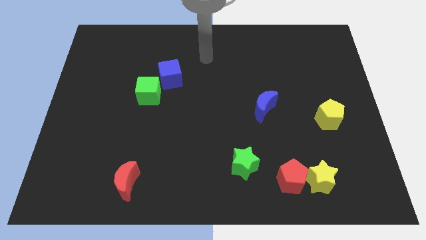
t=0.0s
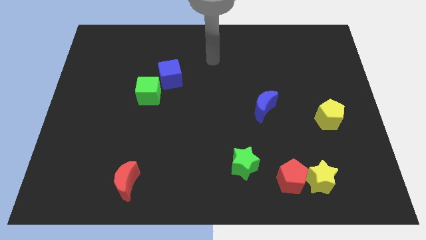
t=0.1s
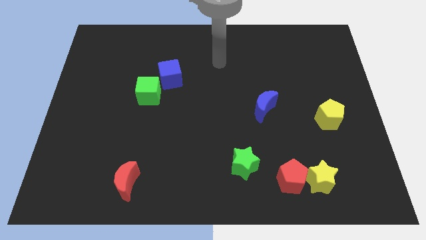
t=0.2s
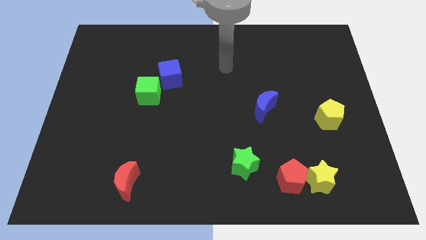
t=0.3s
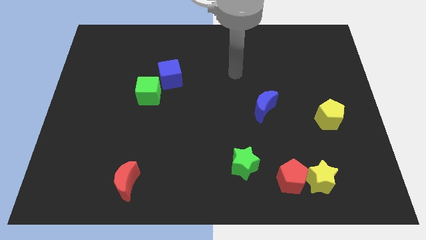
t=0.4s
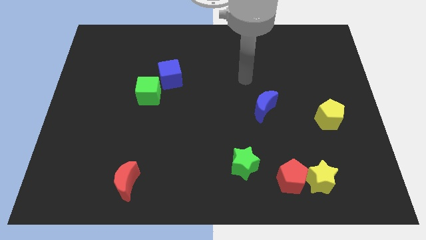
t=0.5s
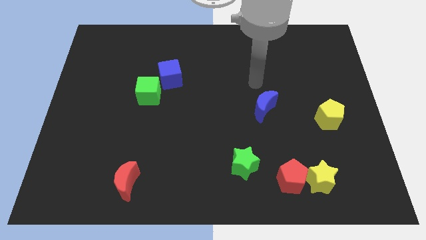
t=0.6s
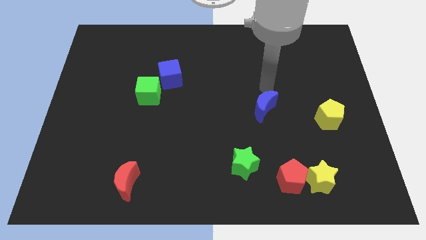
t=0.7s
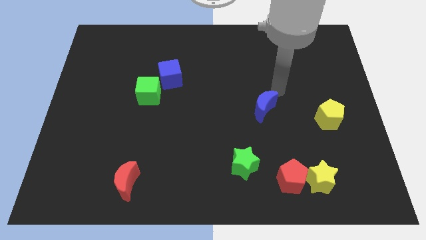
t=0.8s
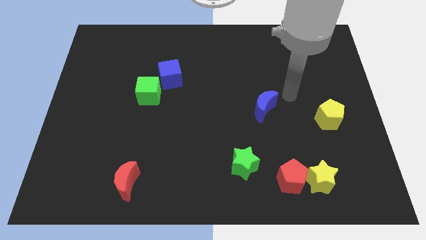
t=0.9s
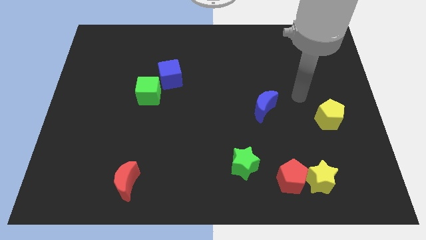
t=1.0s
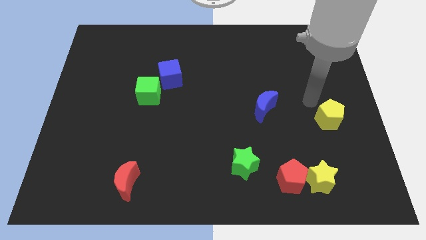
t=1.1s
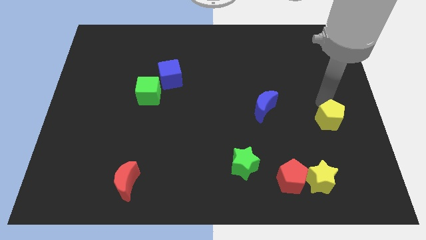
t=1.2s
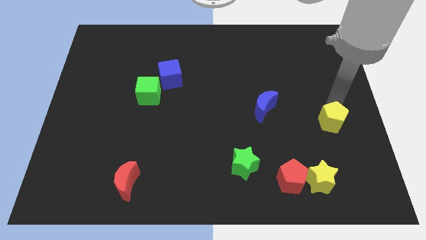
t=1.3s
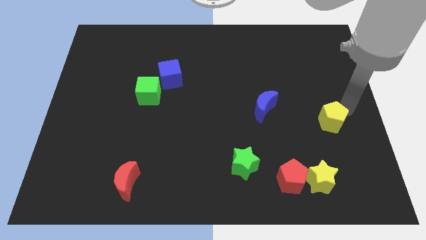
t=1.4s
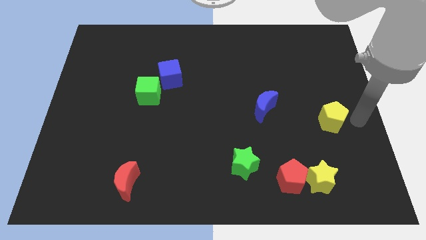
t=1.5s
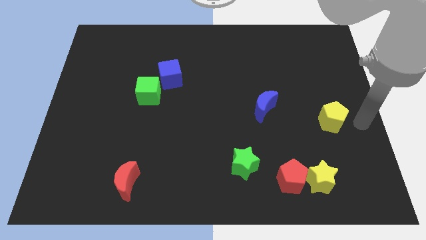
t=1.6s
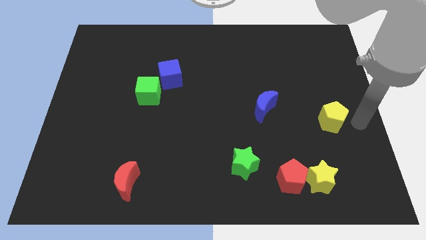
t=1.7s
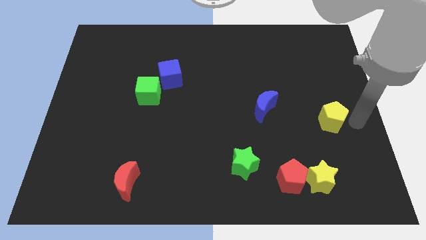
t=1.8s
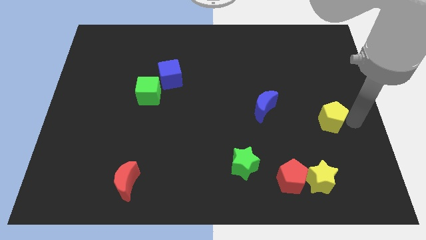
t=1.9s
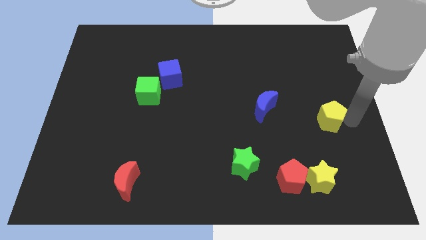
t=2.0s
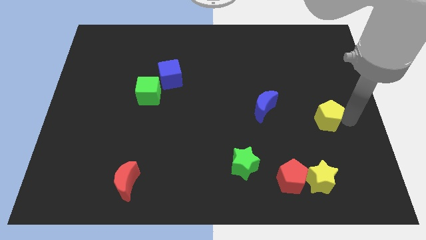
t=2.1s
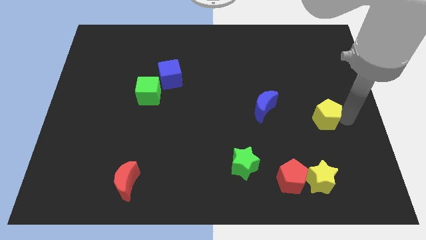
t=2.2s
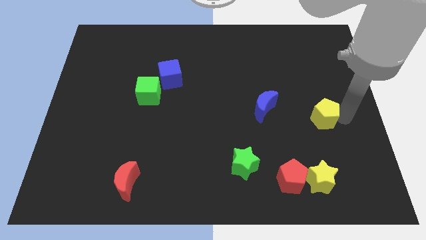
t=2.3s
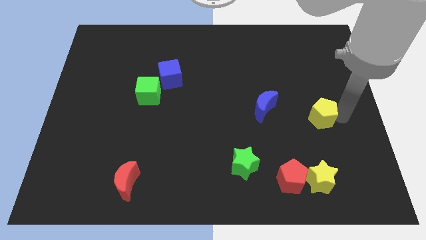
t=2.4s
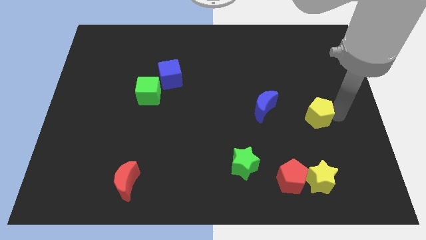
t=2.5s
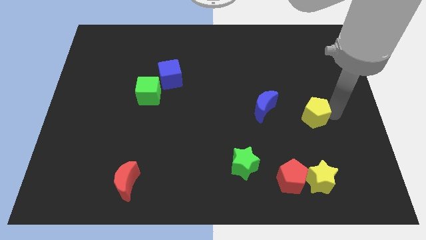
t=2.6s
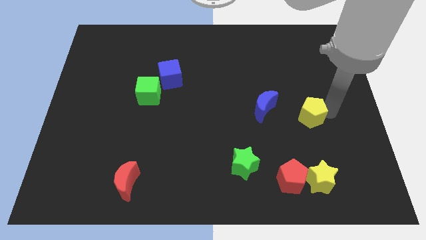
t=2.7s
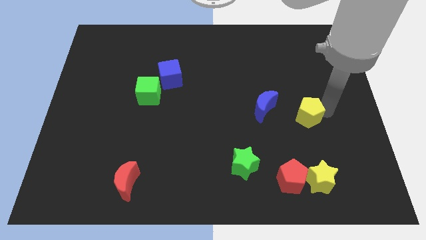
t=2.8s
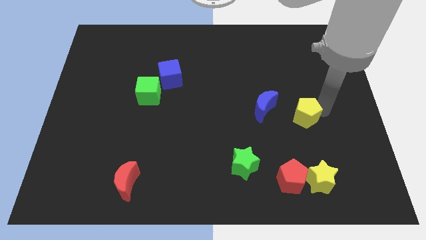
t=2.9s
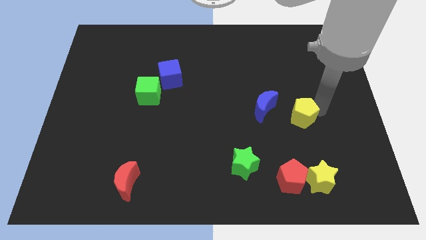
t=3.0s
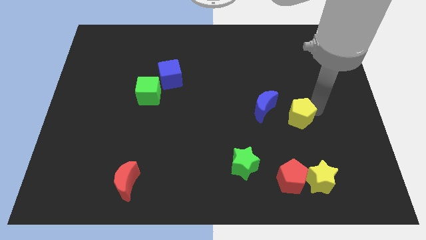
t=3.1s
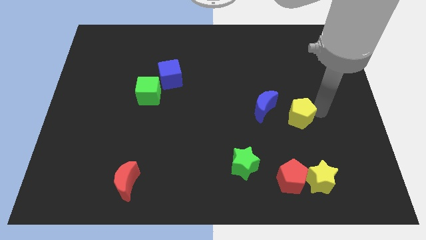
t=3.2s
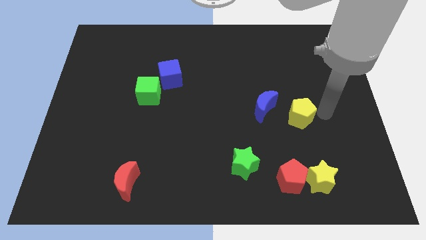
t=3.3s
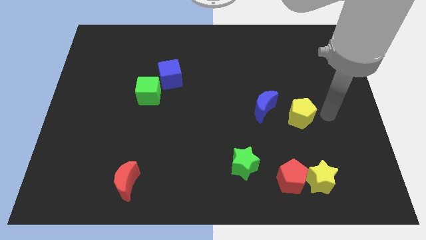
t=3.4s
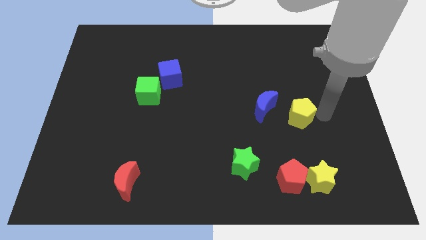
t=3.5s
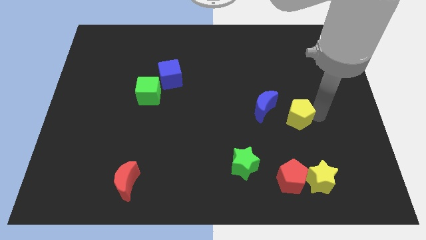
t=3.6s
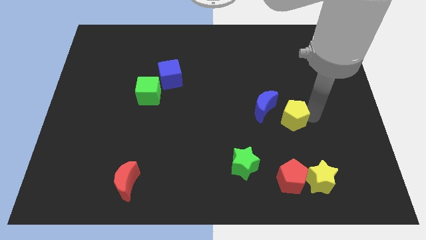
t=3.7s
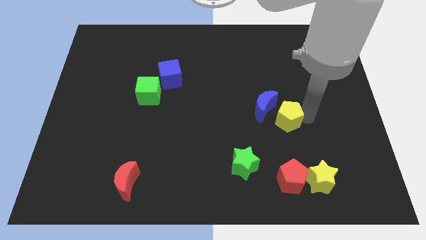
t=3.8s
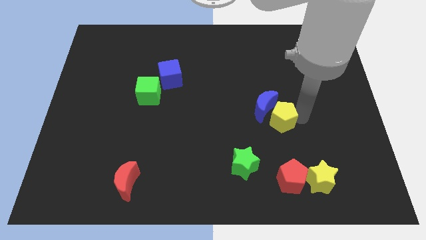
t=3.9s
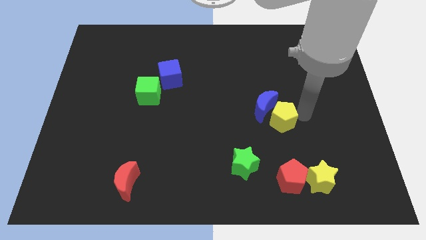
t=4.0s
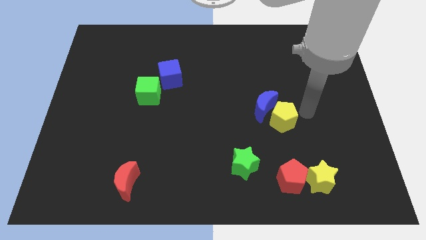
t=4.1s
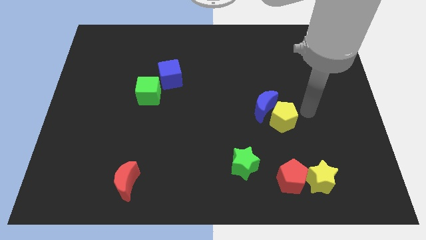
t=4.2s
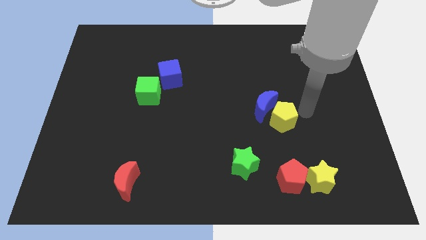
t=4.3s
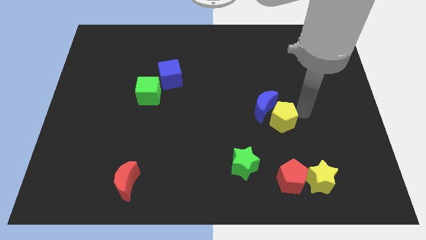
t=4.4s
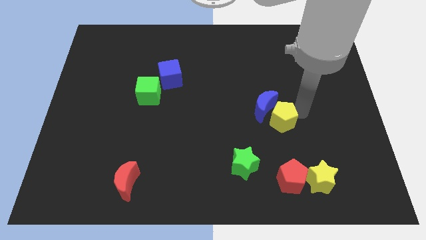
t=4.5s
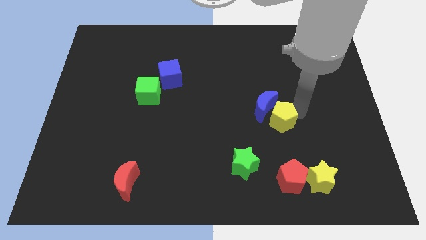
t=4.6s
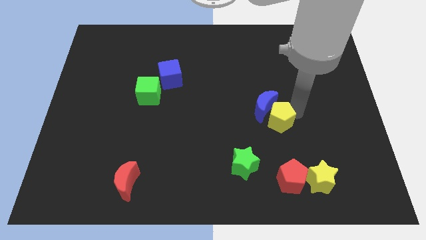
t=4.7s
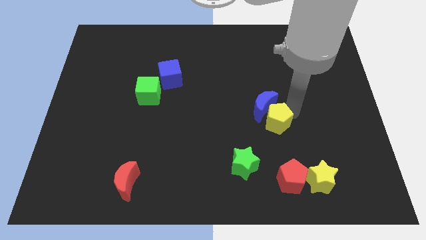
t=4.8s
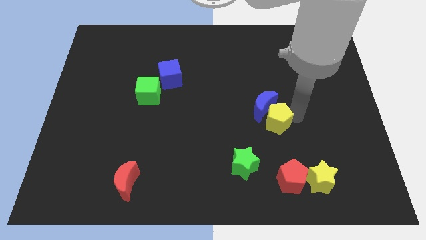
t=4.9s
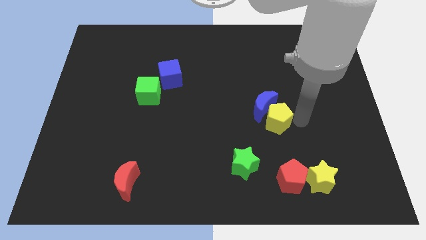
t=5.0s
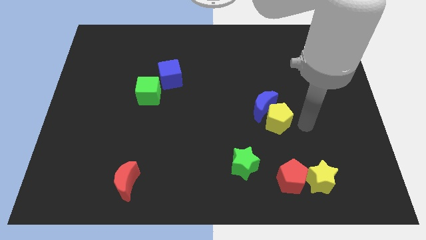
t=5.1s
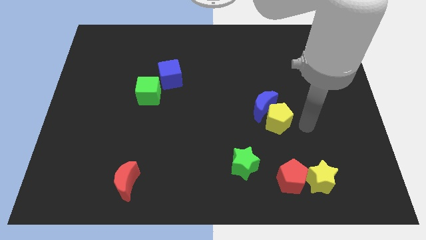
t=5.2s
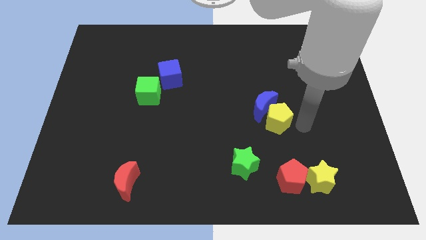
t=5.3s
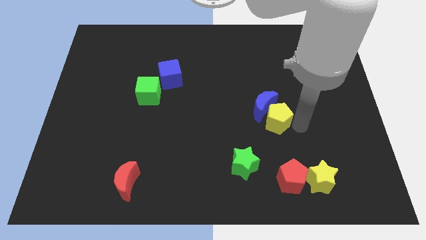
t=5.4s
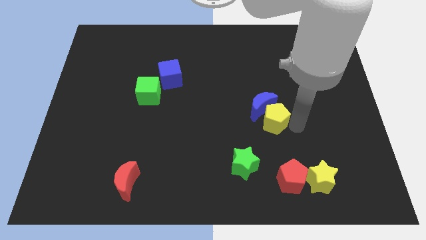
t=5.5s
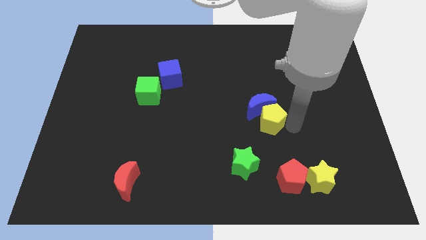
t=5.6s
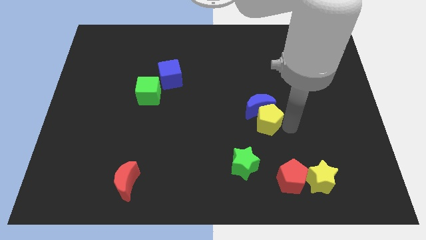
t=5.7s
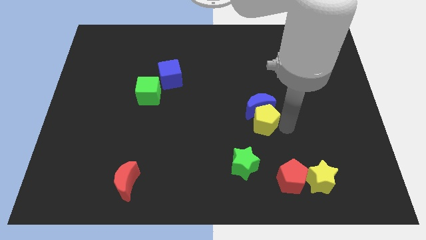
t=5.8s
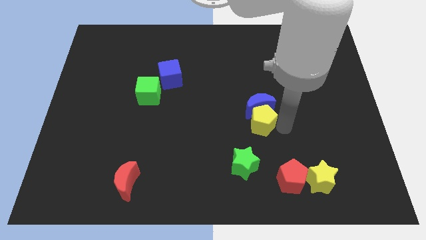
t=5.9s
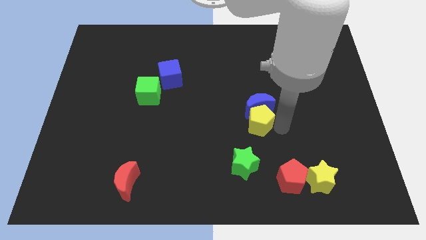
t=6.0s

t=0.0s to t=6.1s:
push the yellow pentagon to the center
